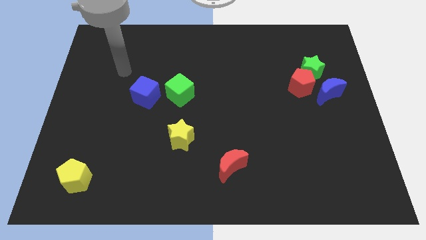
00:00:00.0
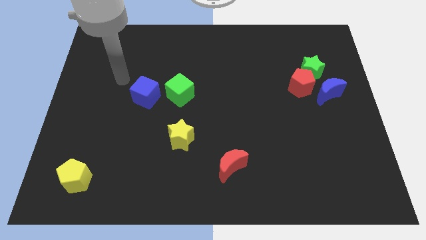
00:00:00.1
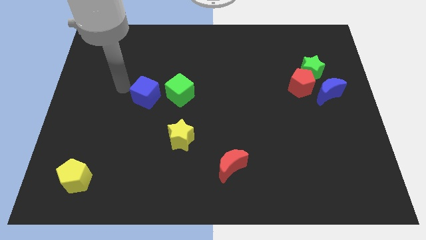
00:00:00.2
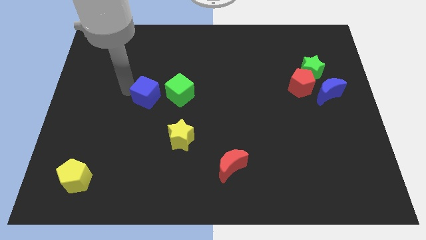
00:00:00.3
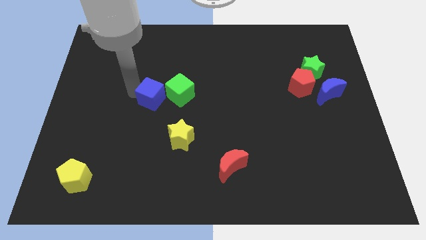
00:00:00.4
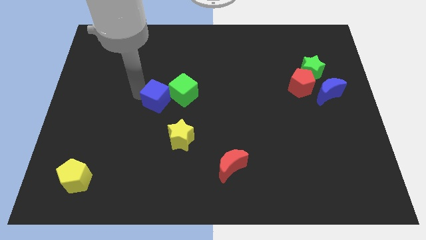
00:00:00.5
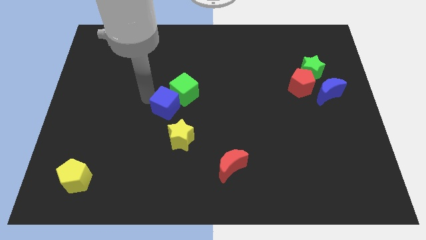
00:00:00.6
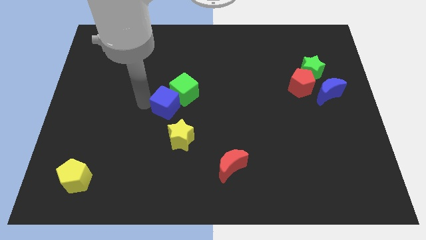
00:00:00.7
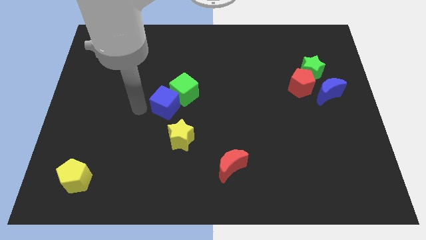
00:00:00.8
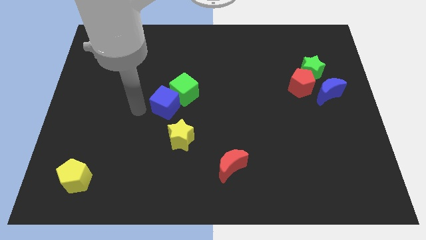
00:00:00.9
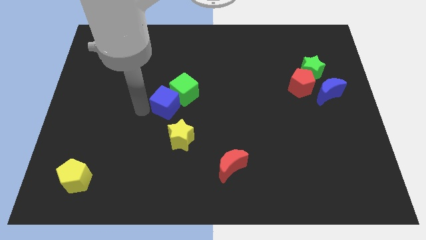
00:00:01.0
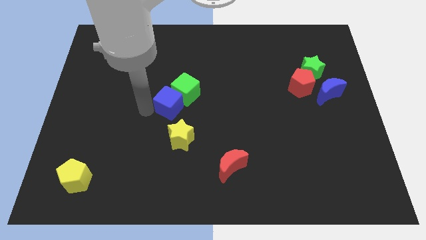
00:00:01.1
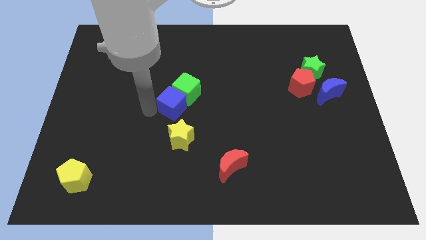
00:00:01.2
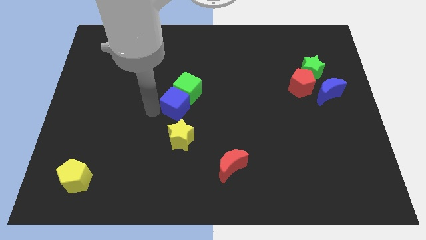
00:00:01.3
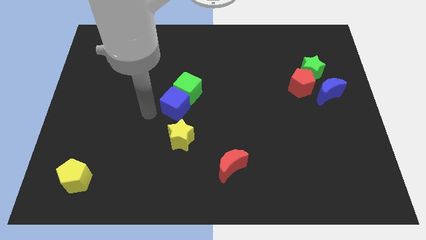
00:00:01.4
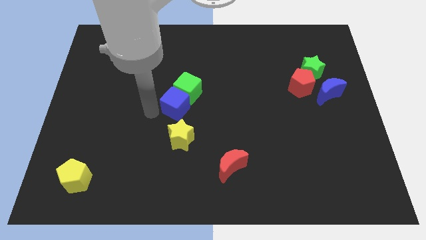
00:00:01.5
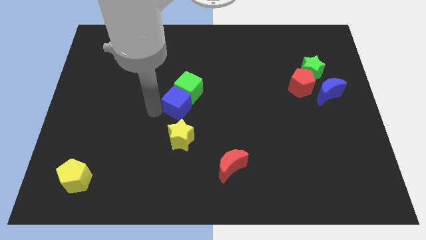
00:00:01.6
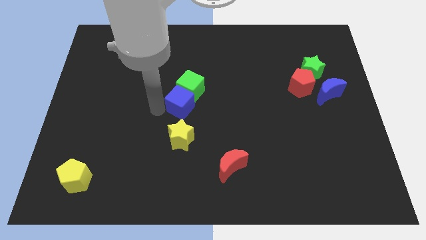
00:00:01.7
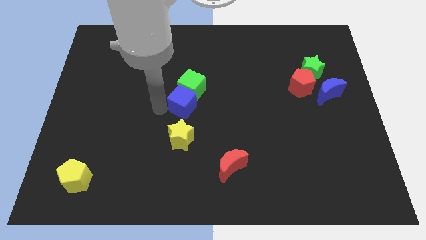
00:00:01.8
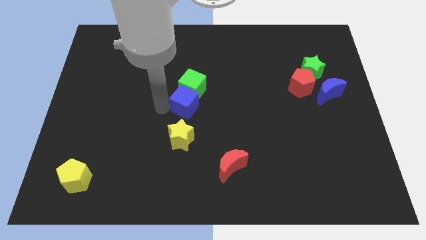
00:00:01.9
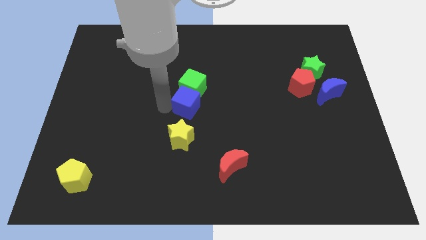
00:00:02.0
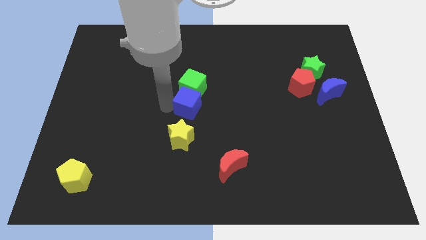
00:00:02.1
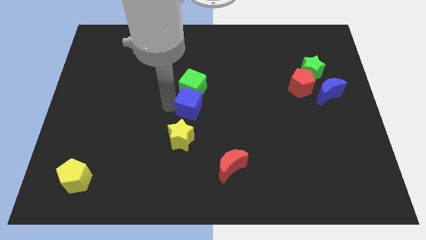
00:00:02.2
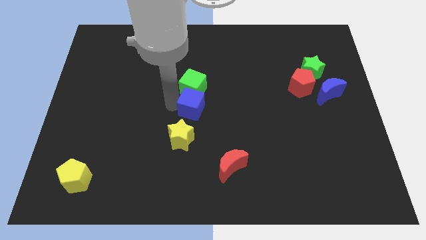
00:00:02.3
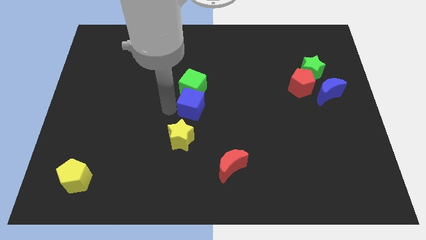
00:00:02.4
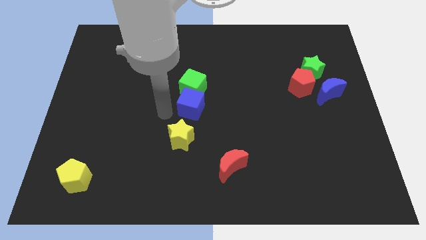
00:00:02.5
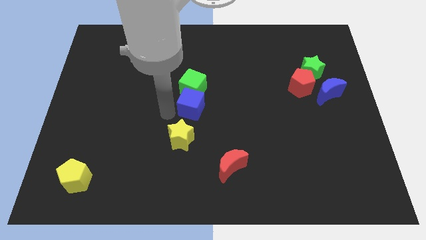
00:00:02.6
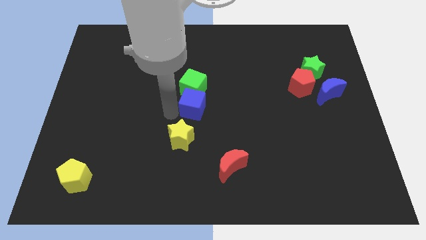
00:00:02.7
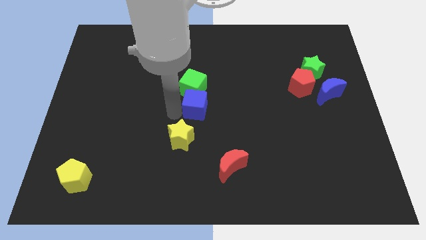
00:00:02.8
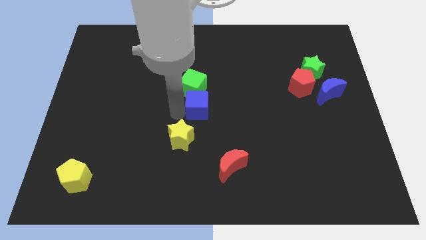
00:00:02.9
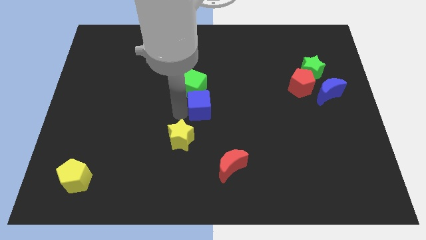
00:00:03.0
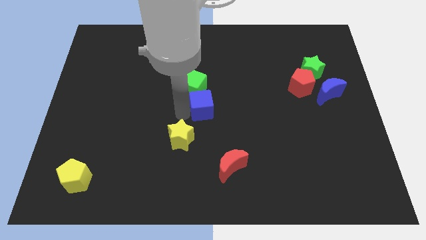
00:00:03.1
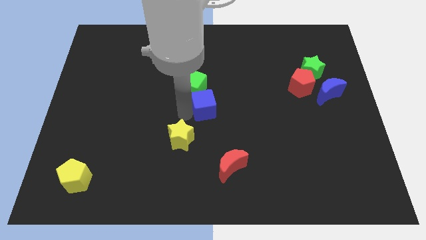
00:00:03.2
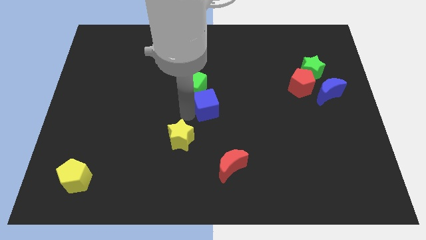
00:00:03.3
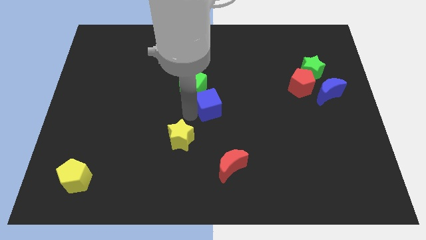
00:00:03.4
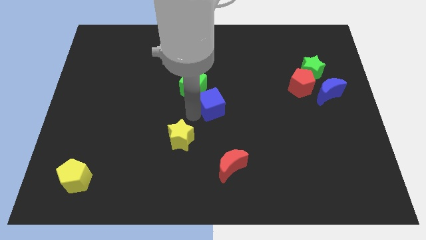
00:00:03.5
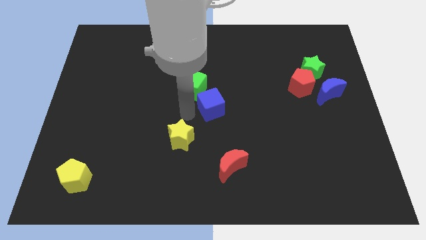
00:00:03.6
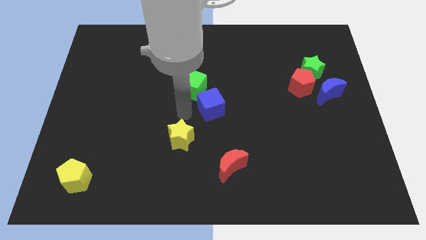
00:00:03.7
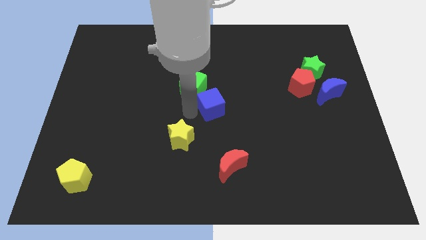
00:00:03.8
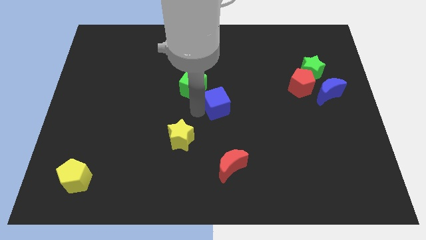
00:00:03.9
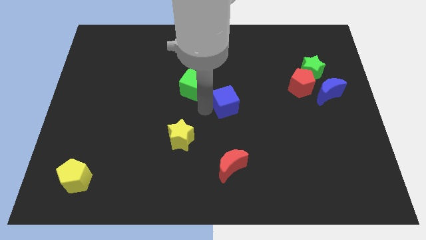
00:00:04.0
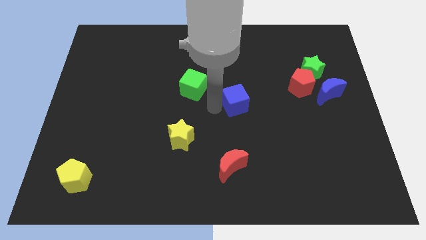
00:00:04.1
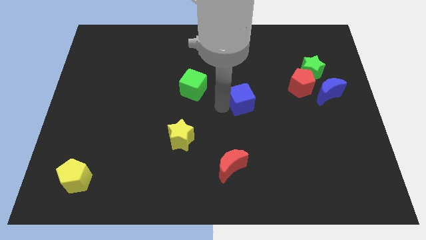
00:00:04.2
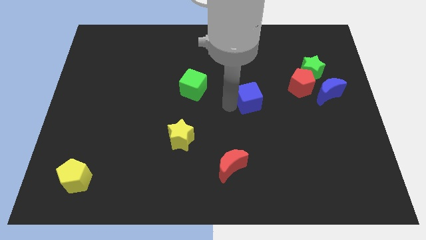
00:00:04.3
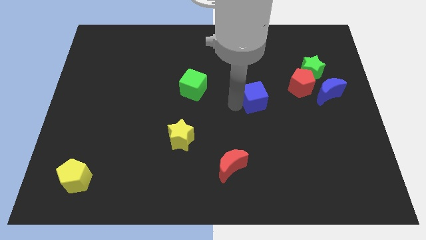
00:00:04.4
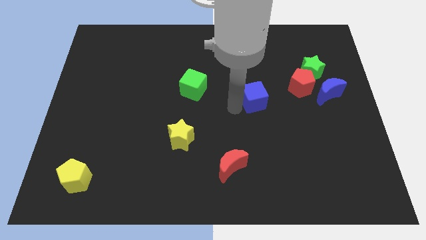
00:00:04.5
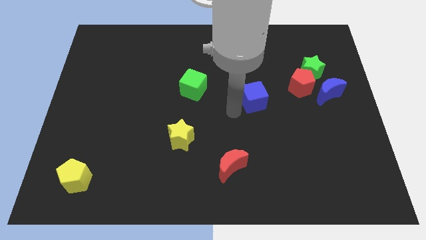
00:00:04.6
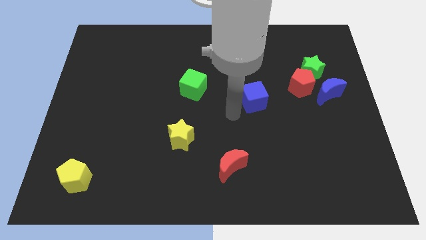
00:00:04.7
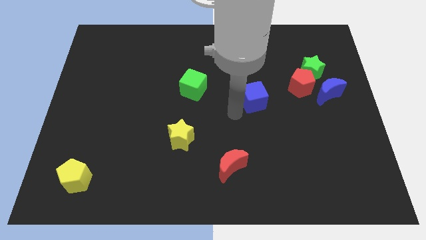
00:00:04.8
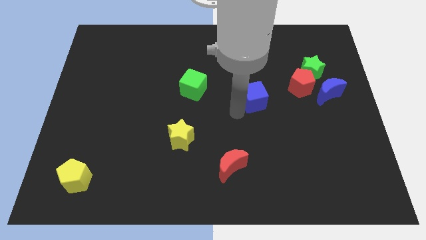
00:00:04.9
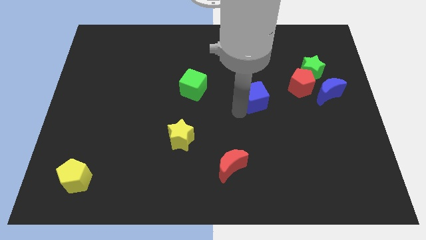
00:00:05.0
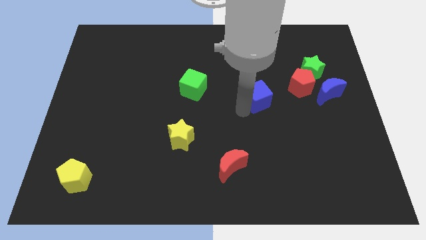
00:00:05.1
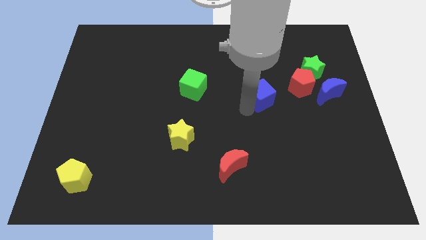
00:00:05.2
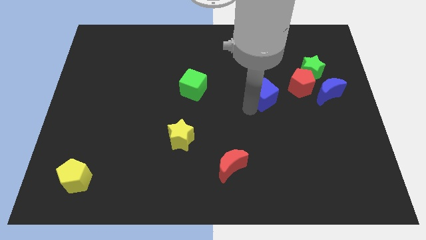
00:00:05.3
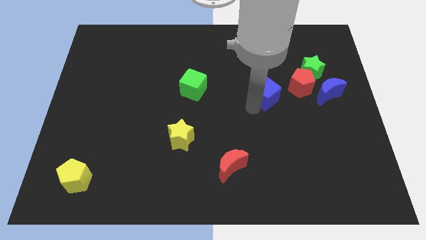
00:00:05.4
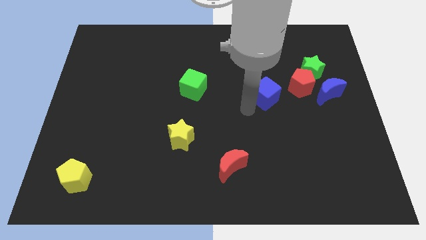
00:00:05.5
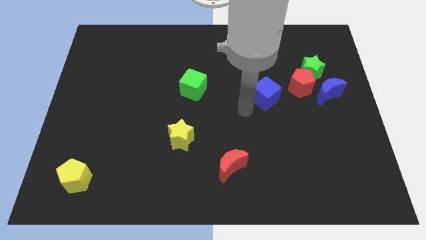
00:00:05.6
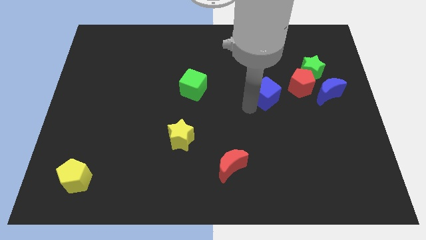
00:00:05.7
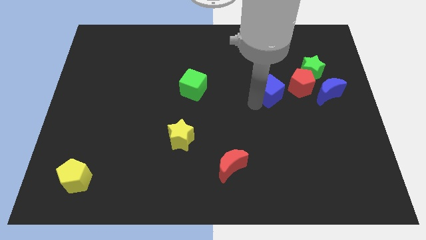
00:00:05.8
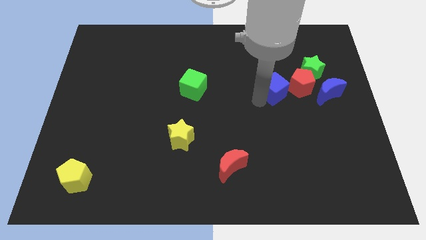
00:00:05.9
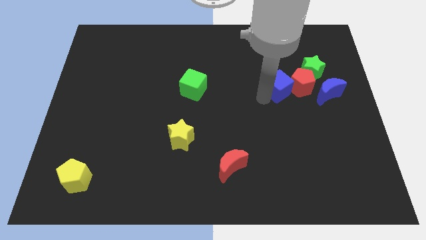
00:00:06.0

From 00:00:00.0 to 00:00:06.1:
put the blue cube to the red pentagon

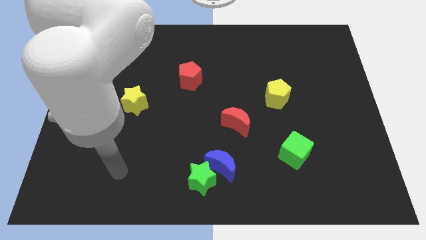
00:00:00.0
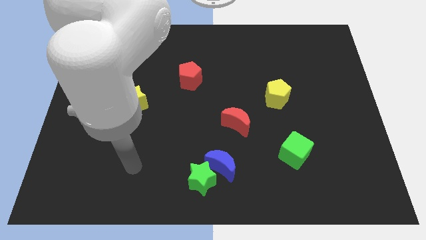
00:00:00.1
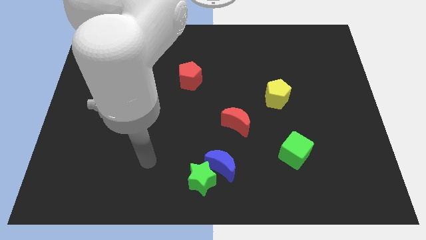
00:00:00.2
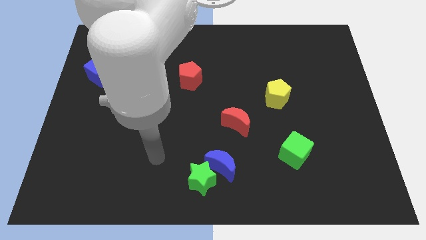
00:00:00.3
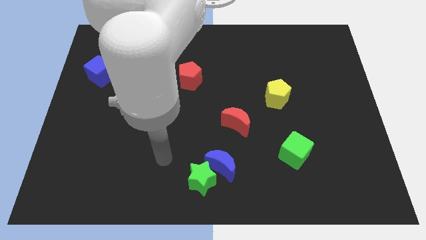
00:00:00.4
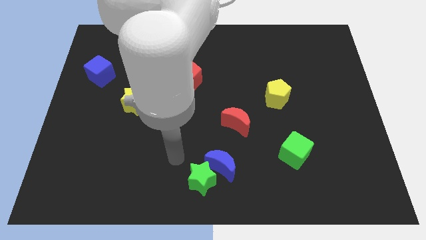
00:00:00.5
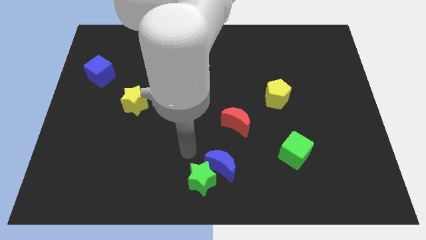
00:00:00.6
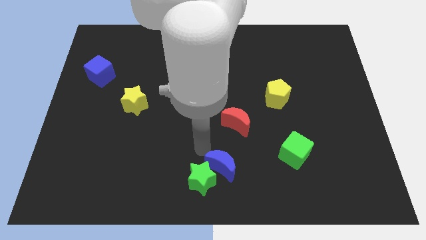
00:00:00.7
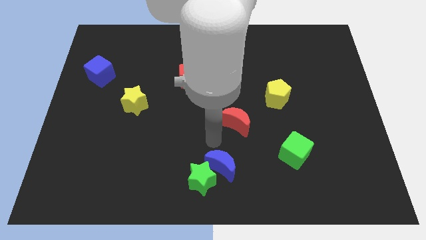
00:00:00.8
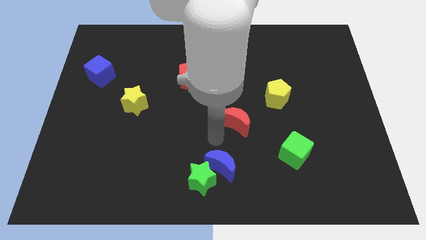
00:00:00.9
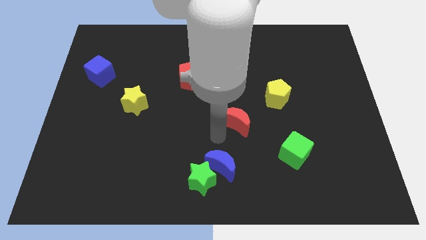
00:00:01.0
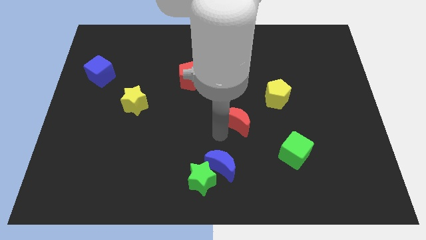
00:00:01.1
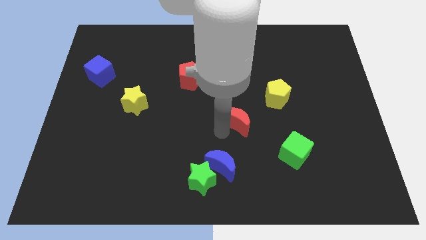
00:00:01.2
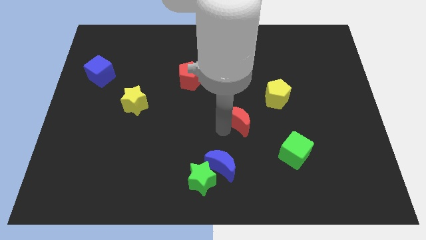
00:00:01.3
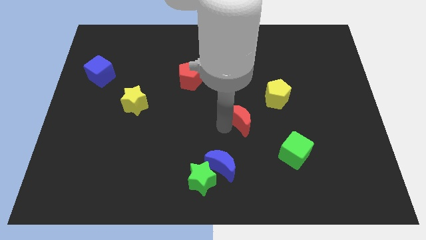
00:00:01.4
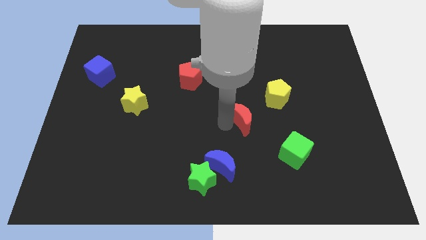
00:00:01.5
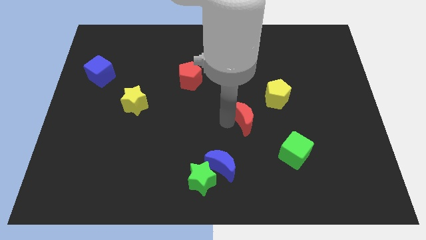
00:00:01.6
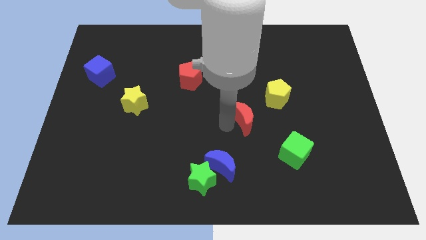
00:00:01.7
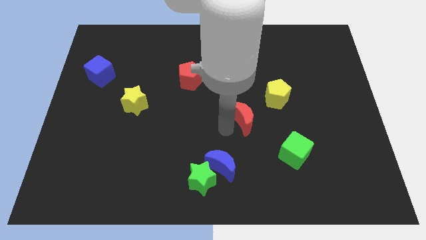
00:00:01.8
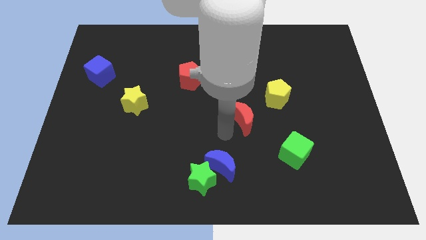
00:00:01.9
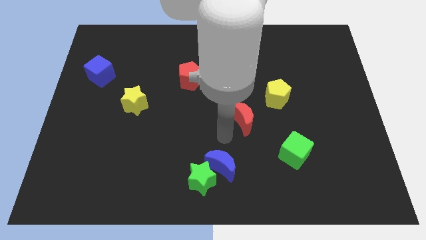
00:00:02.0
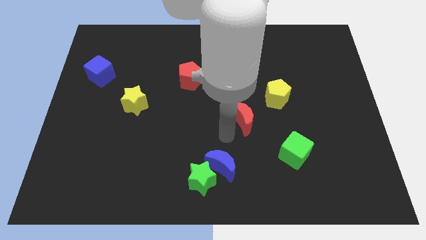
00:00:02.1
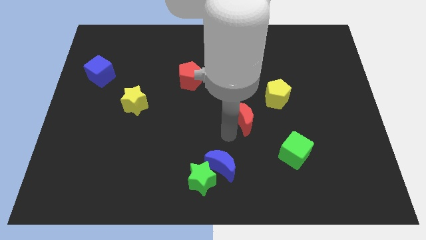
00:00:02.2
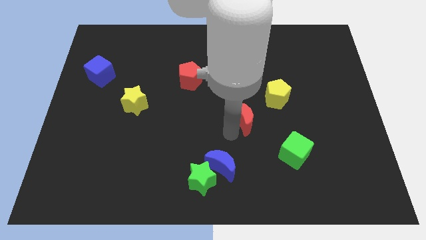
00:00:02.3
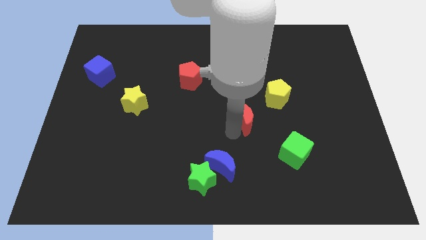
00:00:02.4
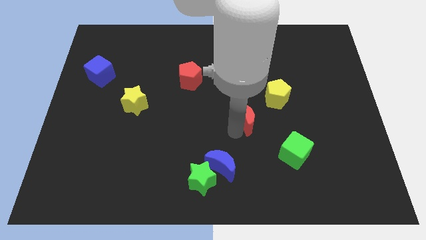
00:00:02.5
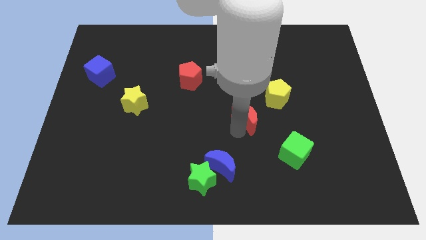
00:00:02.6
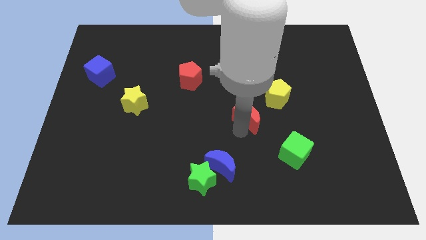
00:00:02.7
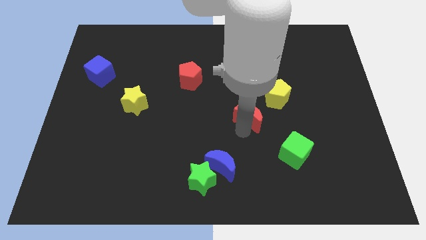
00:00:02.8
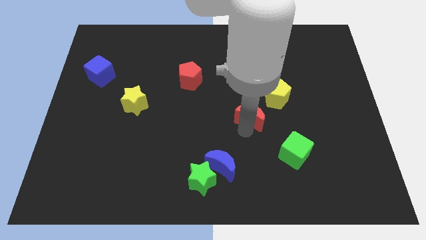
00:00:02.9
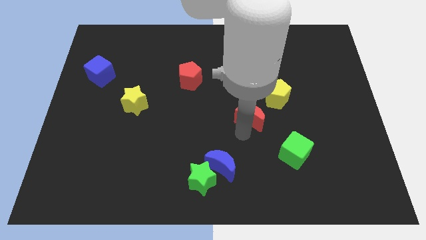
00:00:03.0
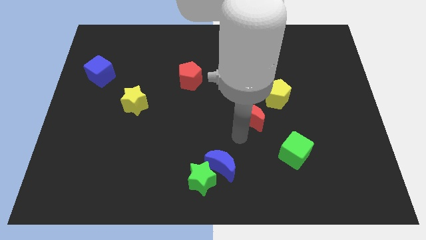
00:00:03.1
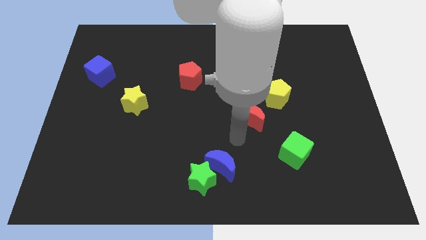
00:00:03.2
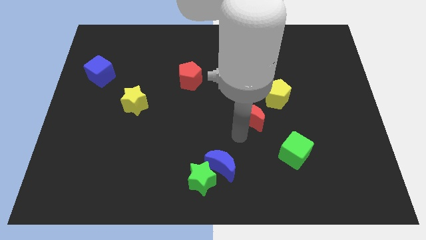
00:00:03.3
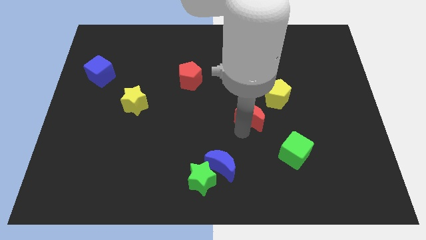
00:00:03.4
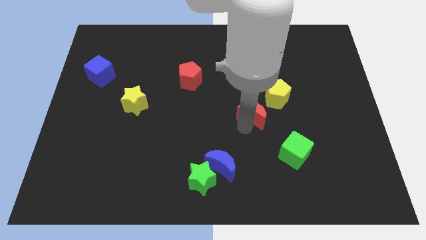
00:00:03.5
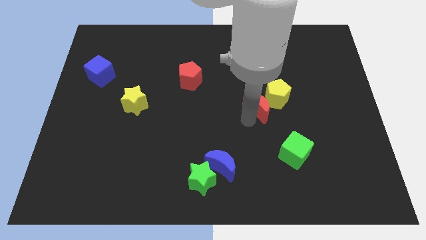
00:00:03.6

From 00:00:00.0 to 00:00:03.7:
slide the red moon towards the yellow pentagon
